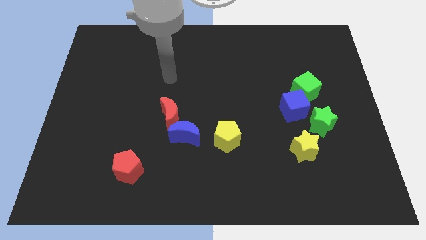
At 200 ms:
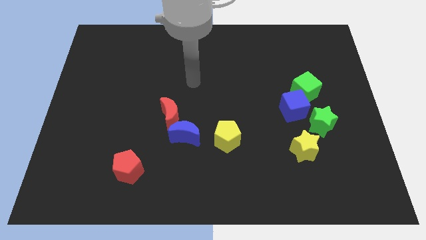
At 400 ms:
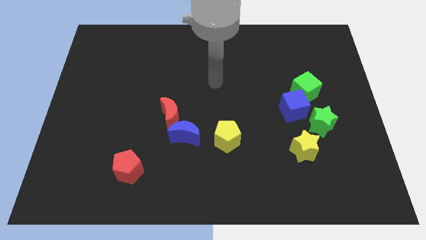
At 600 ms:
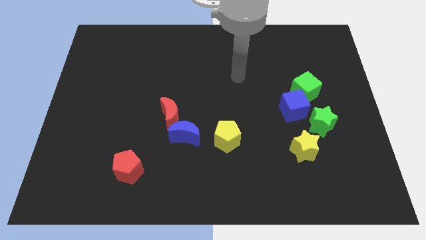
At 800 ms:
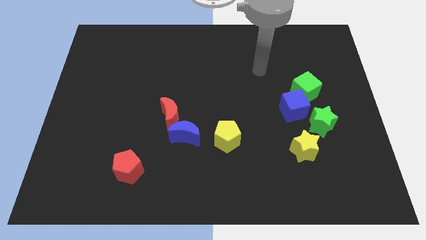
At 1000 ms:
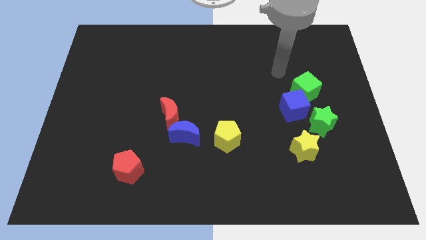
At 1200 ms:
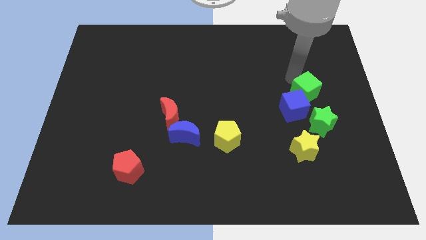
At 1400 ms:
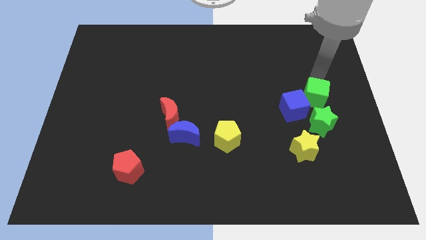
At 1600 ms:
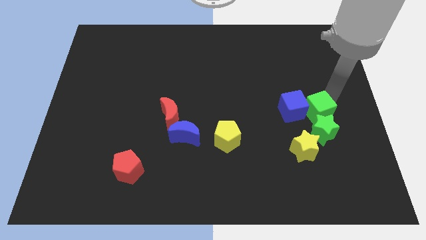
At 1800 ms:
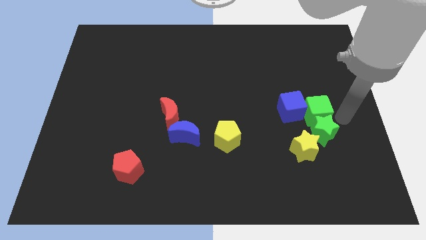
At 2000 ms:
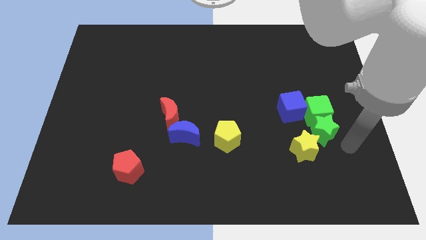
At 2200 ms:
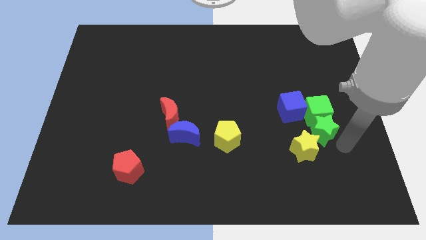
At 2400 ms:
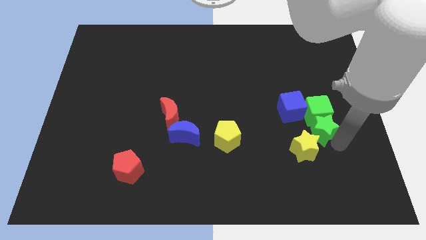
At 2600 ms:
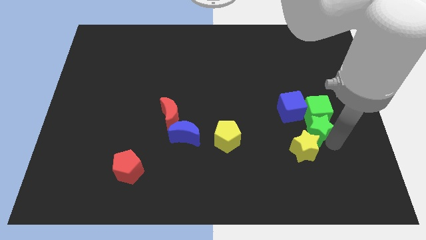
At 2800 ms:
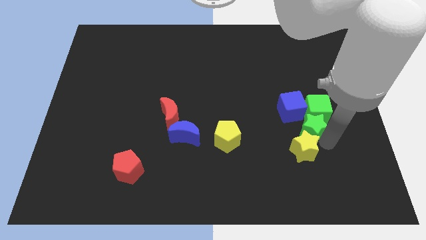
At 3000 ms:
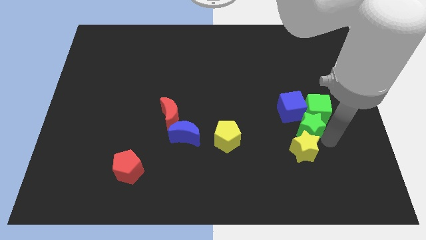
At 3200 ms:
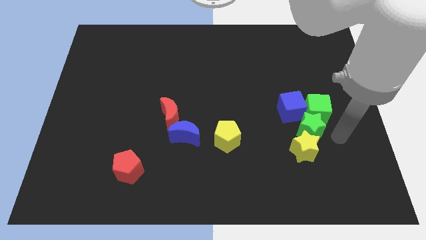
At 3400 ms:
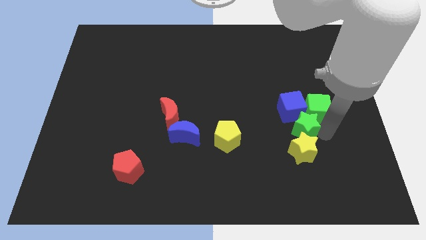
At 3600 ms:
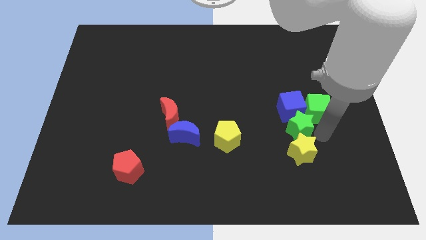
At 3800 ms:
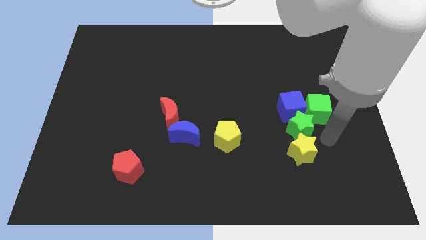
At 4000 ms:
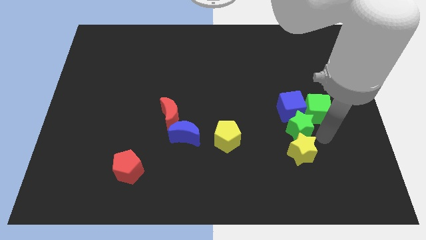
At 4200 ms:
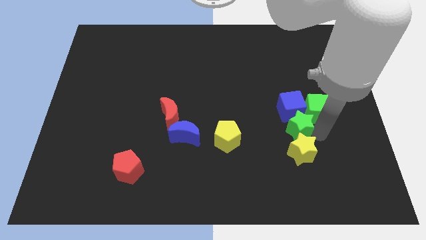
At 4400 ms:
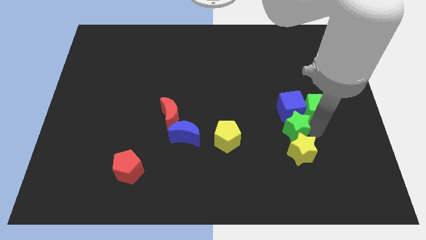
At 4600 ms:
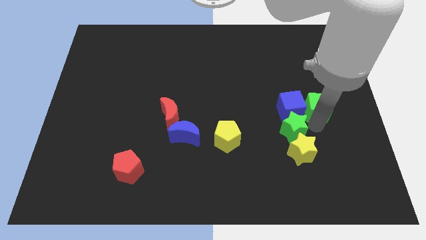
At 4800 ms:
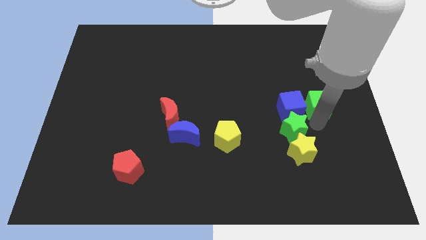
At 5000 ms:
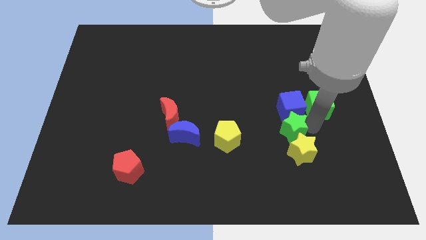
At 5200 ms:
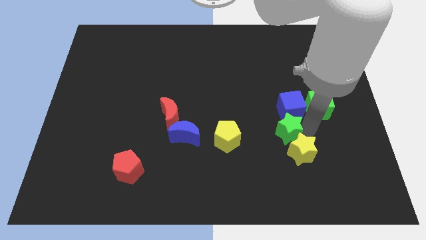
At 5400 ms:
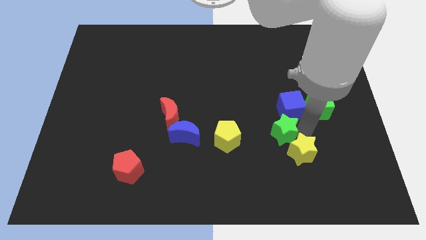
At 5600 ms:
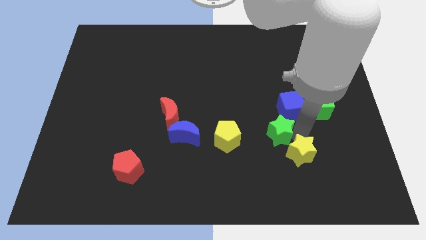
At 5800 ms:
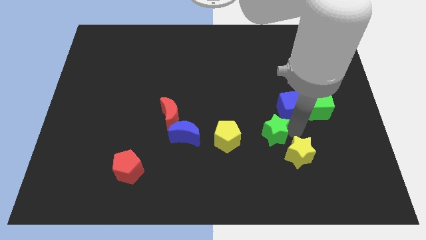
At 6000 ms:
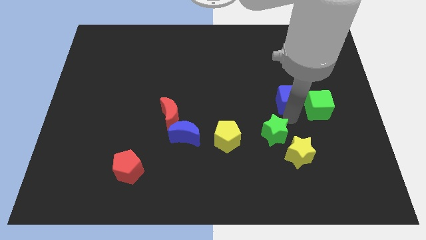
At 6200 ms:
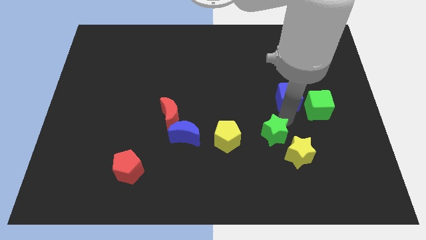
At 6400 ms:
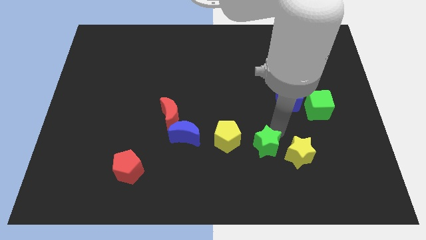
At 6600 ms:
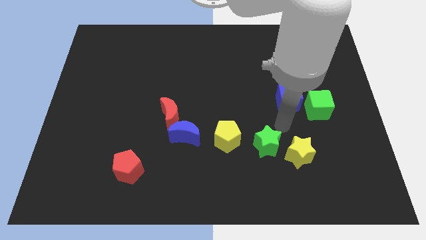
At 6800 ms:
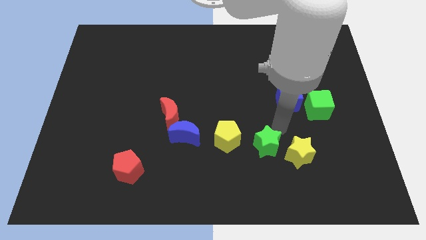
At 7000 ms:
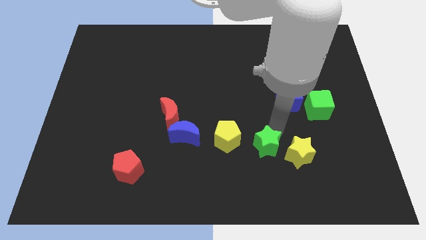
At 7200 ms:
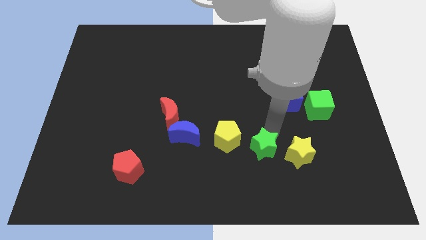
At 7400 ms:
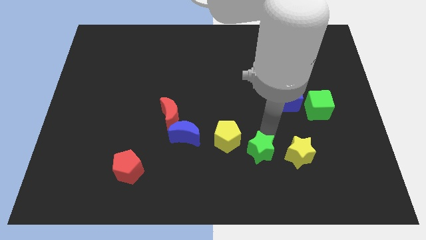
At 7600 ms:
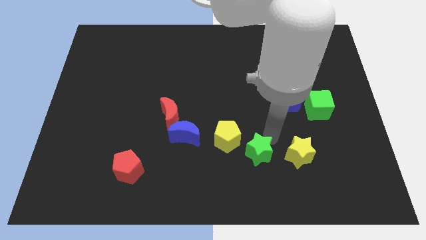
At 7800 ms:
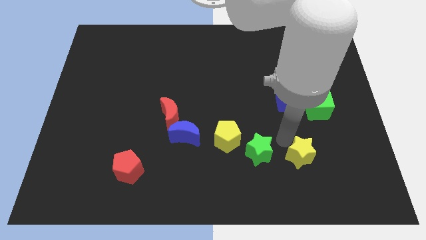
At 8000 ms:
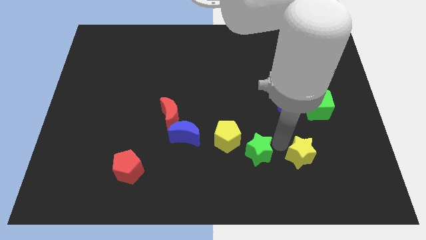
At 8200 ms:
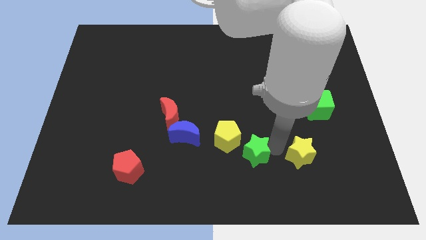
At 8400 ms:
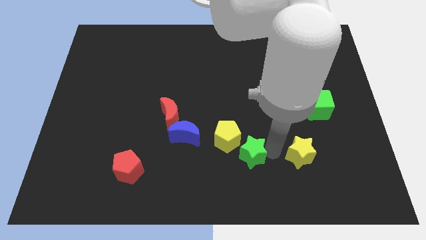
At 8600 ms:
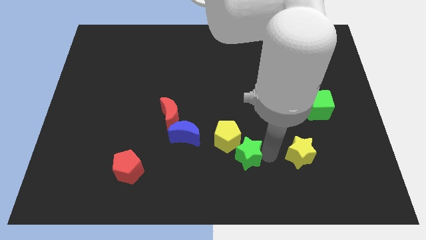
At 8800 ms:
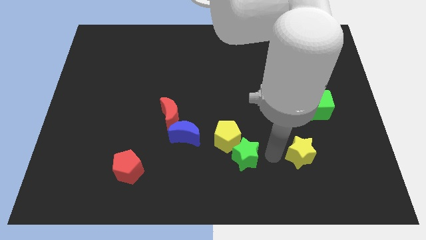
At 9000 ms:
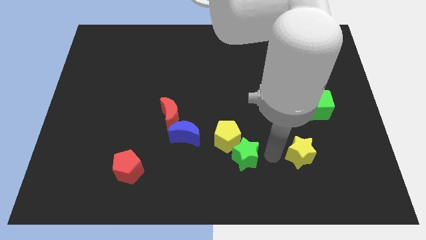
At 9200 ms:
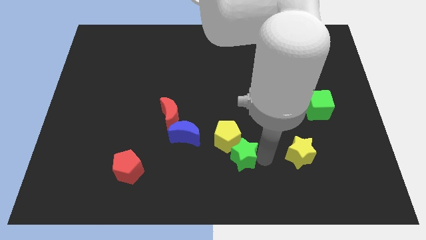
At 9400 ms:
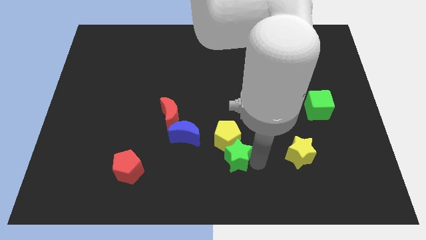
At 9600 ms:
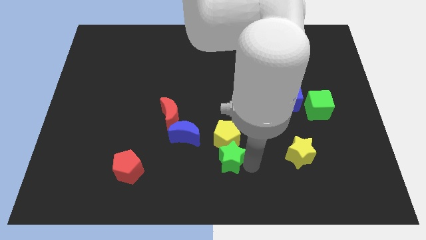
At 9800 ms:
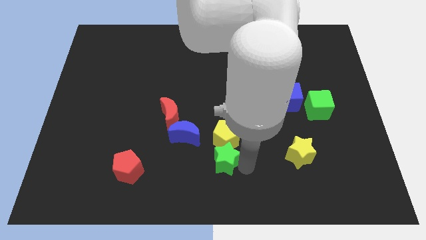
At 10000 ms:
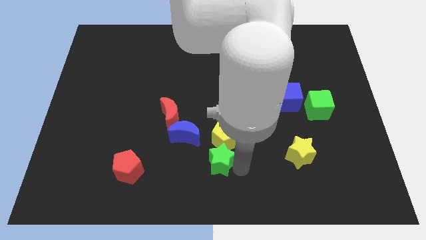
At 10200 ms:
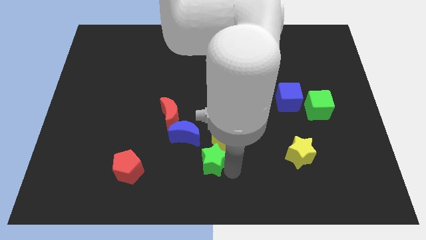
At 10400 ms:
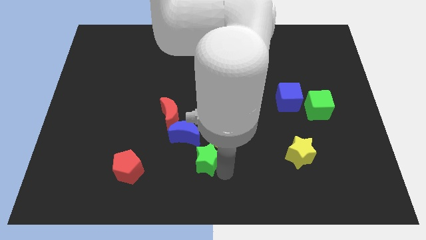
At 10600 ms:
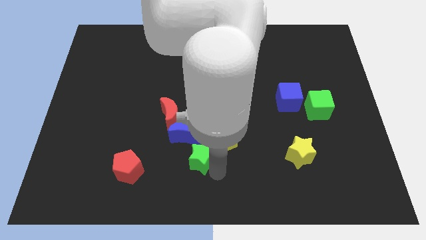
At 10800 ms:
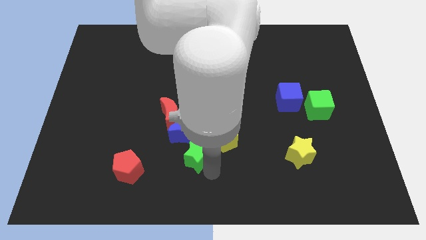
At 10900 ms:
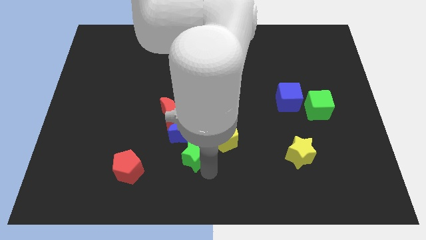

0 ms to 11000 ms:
slide the green star to the left of the yellow pentagon

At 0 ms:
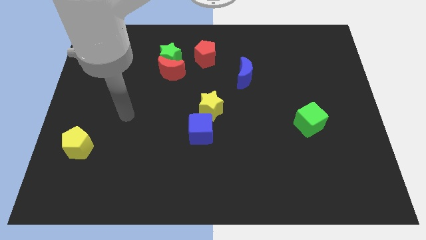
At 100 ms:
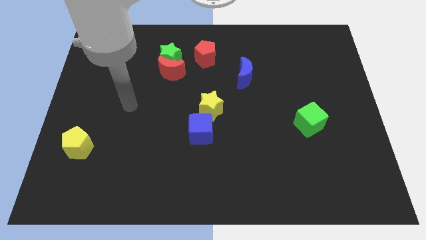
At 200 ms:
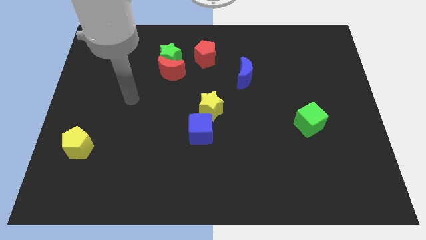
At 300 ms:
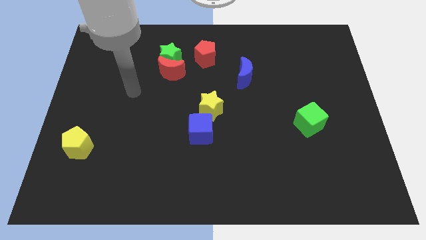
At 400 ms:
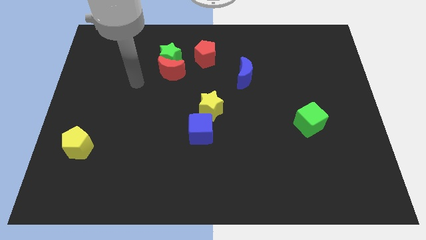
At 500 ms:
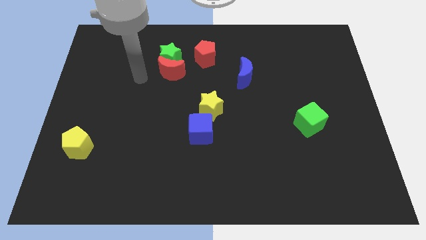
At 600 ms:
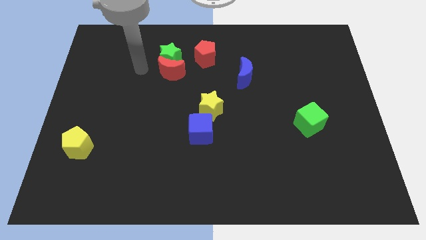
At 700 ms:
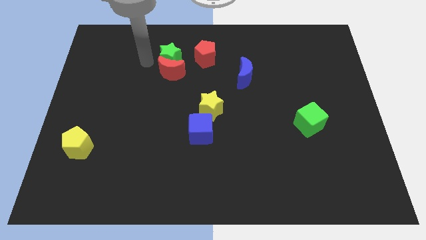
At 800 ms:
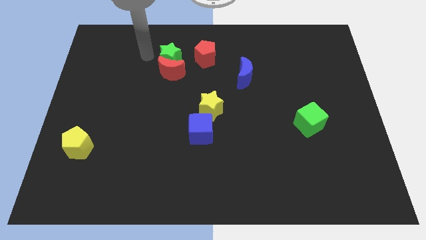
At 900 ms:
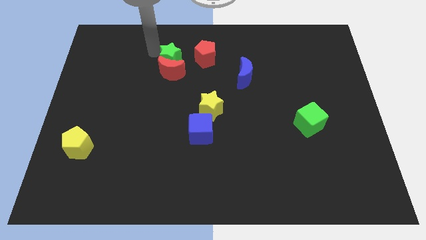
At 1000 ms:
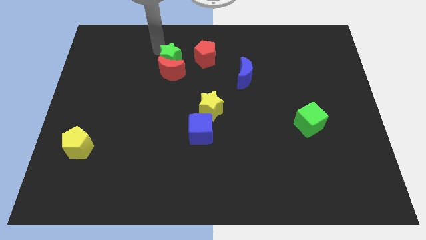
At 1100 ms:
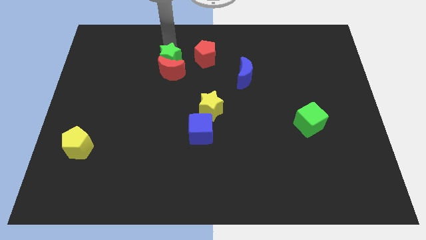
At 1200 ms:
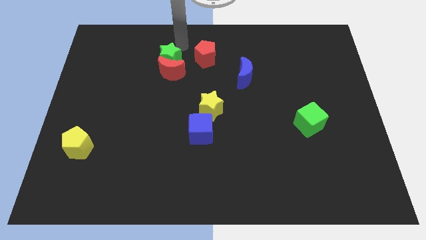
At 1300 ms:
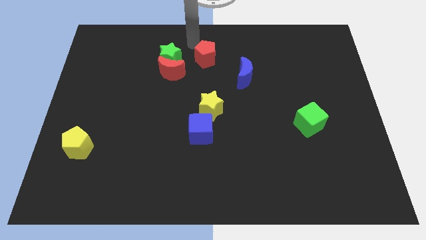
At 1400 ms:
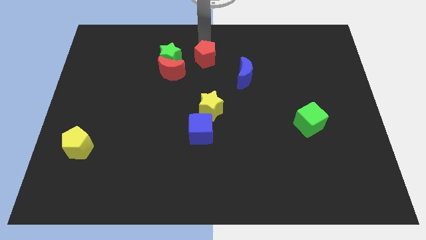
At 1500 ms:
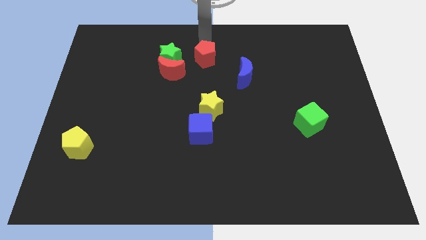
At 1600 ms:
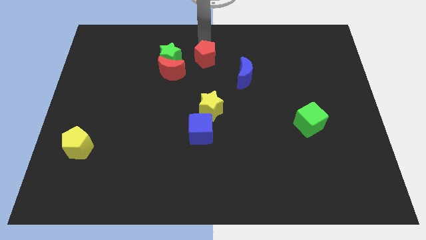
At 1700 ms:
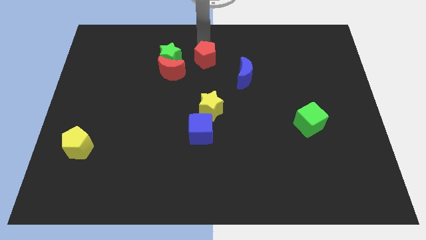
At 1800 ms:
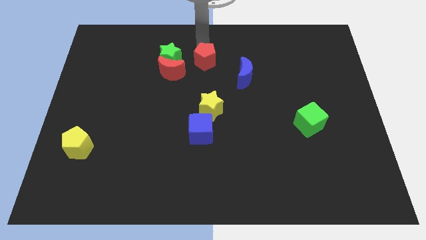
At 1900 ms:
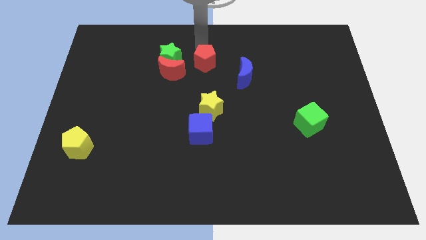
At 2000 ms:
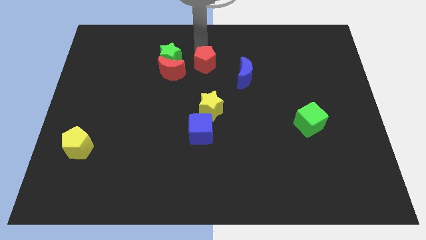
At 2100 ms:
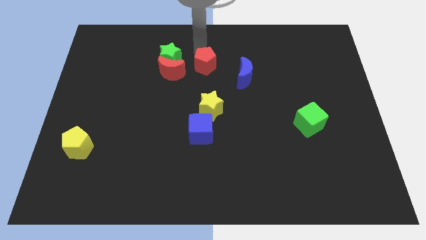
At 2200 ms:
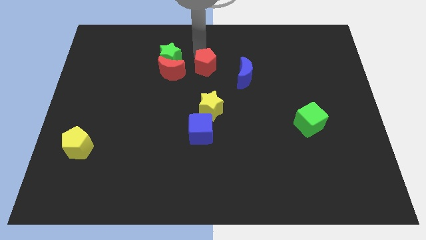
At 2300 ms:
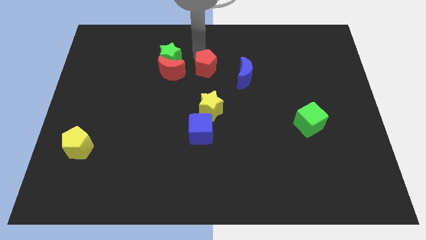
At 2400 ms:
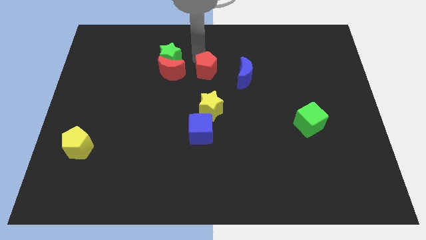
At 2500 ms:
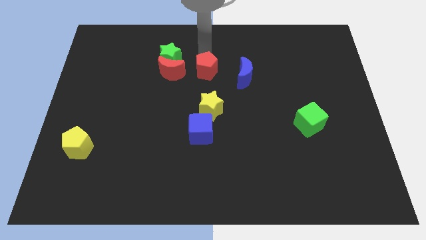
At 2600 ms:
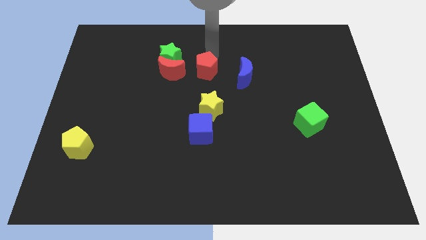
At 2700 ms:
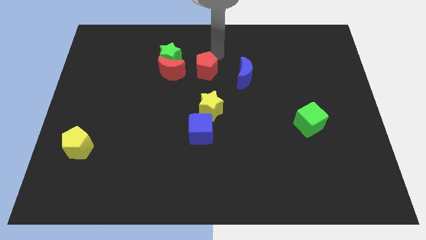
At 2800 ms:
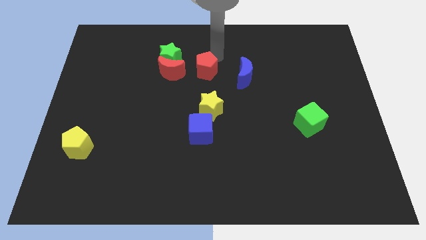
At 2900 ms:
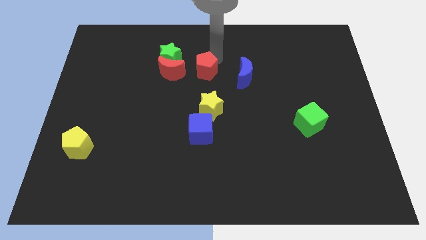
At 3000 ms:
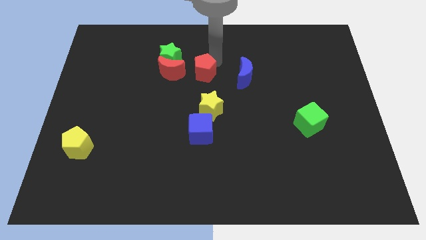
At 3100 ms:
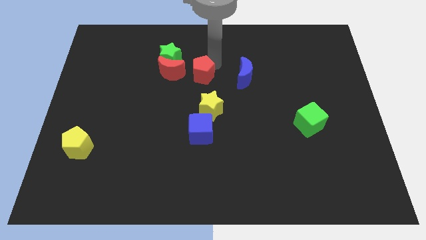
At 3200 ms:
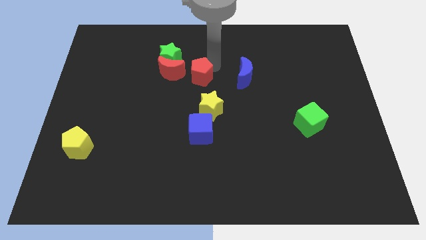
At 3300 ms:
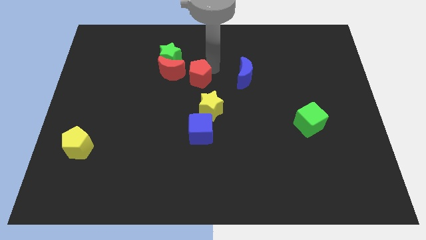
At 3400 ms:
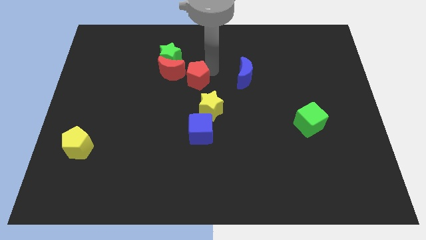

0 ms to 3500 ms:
slide the red pentagon to the top left of the yellow star
